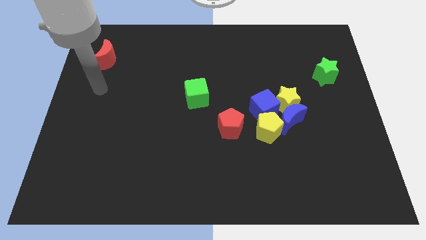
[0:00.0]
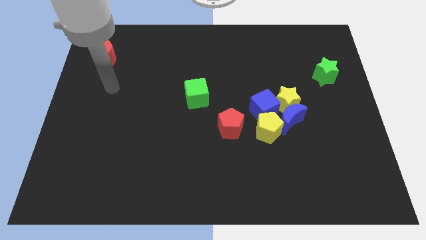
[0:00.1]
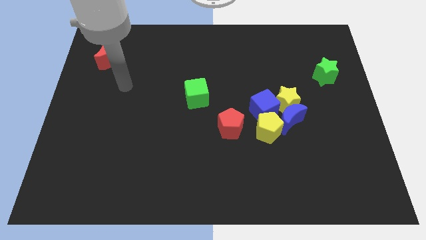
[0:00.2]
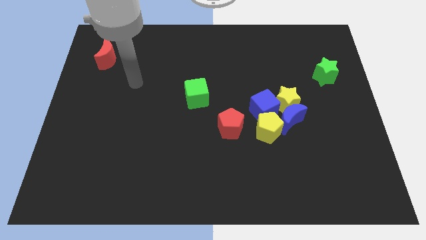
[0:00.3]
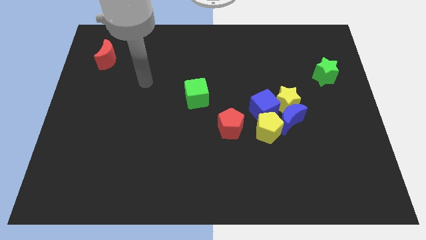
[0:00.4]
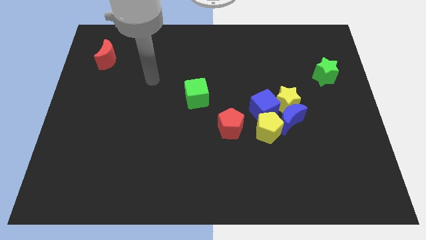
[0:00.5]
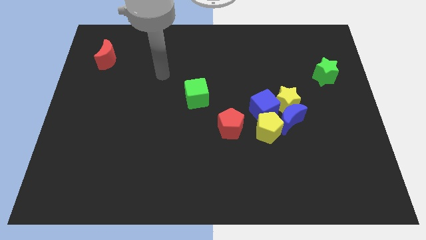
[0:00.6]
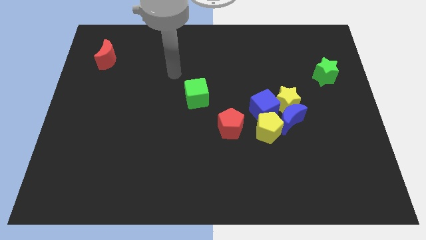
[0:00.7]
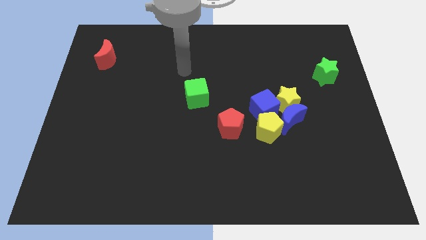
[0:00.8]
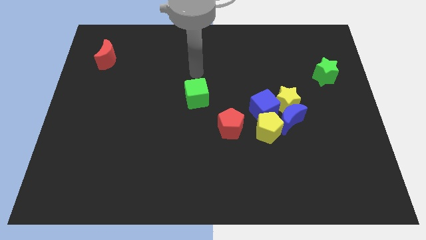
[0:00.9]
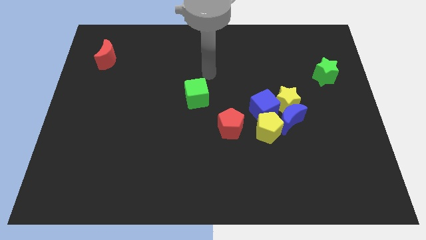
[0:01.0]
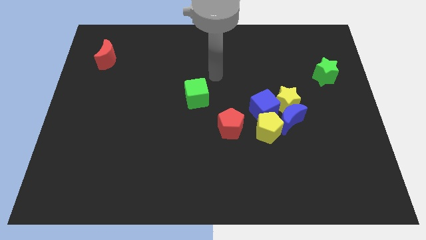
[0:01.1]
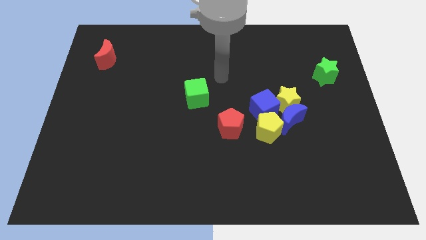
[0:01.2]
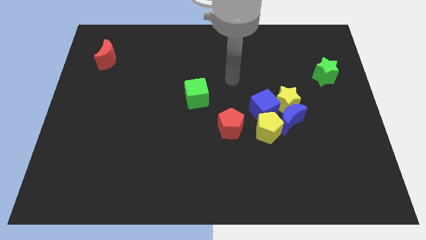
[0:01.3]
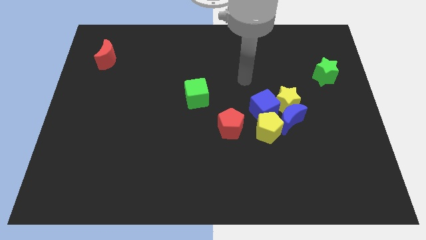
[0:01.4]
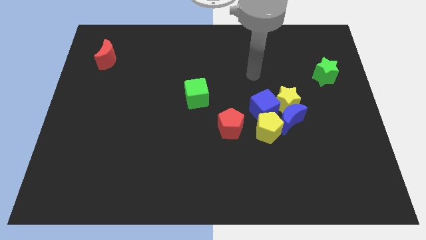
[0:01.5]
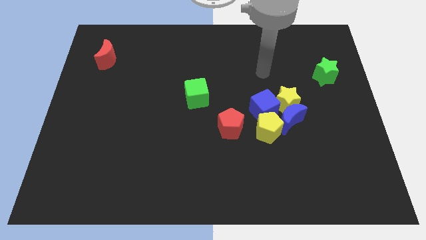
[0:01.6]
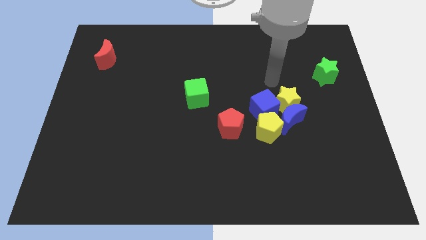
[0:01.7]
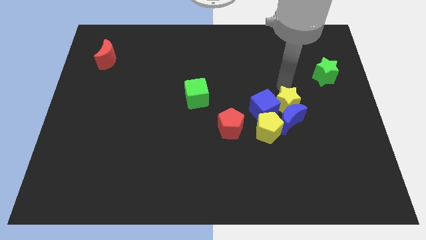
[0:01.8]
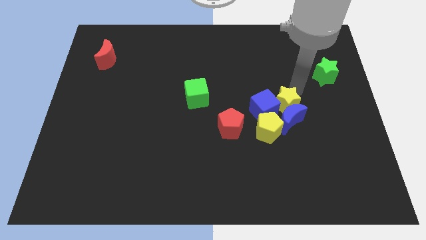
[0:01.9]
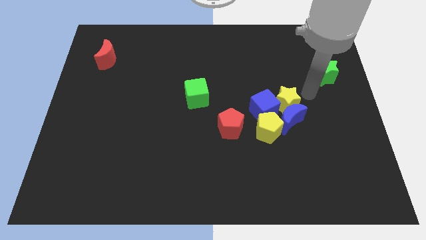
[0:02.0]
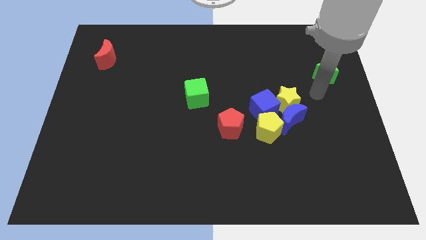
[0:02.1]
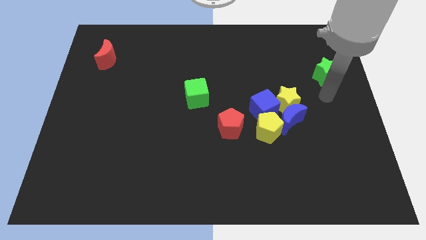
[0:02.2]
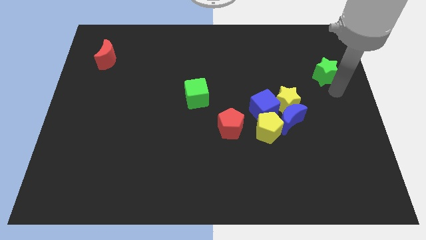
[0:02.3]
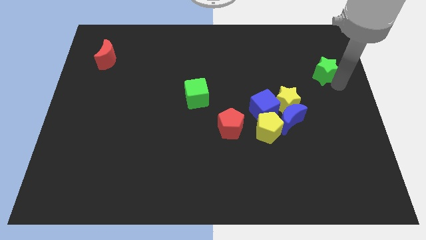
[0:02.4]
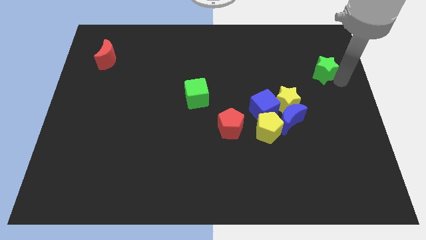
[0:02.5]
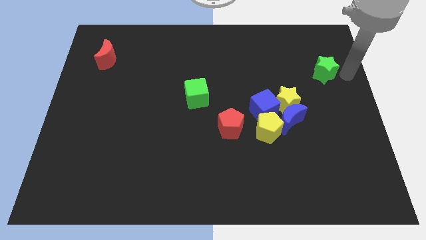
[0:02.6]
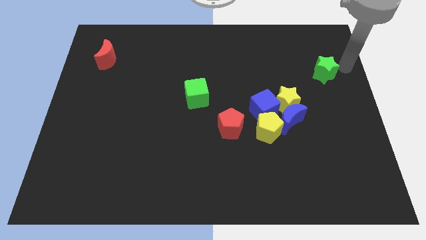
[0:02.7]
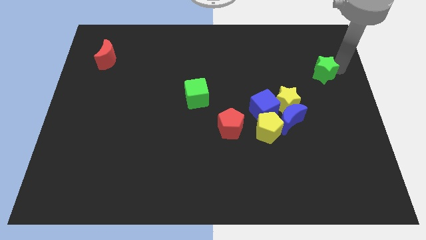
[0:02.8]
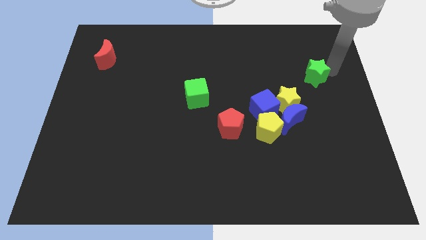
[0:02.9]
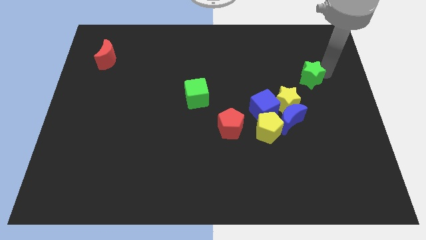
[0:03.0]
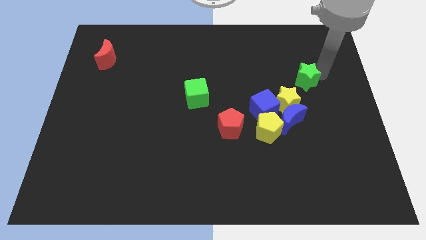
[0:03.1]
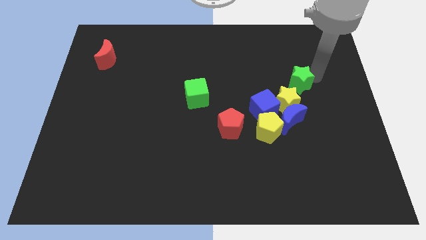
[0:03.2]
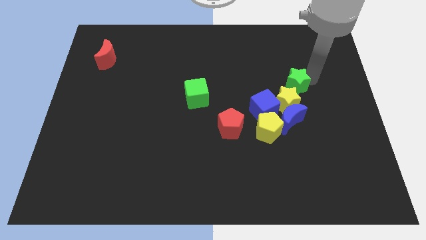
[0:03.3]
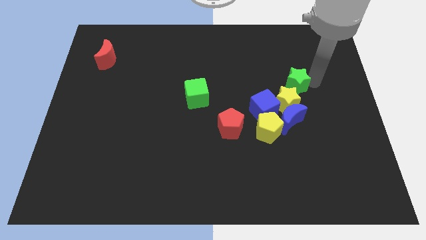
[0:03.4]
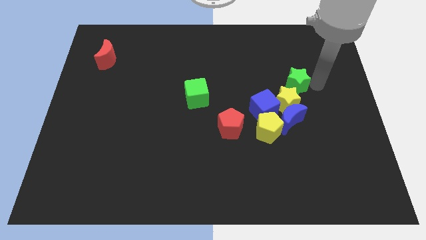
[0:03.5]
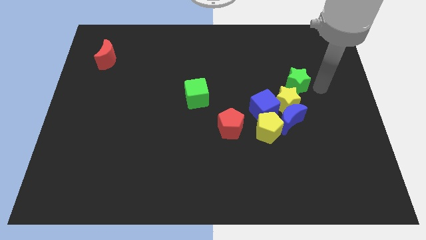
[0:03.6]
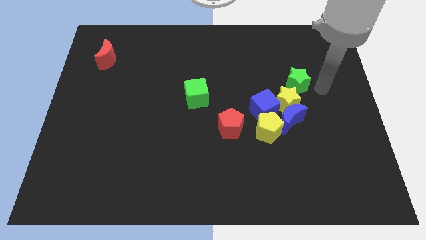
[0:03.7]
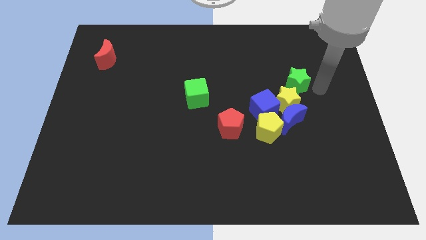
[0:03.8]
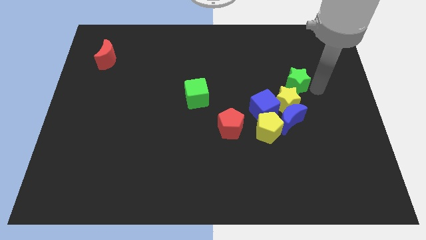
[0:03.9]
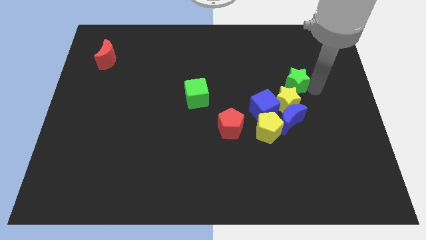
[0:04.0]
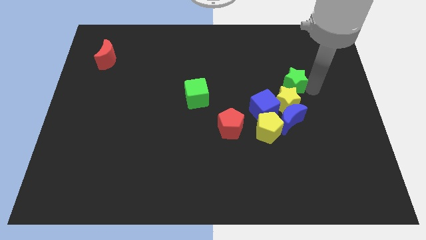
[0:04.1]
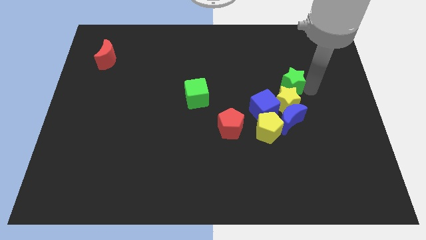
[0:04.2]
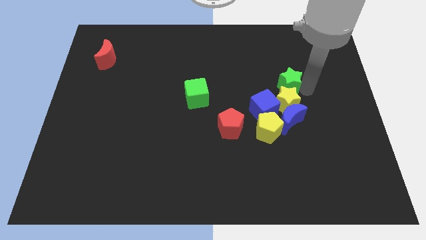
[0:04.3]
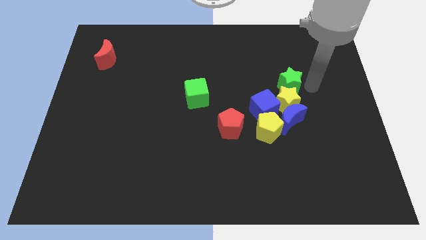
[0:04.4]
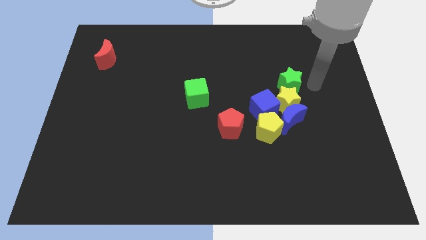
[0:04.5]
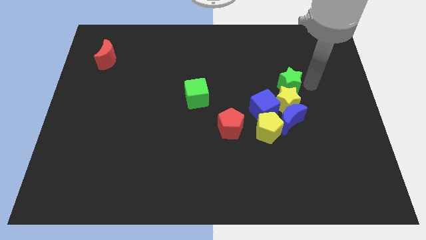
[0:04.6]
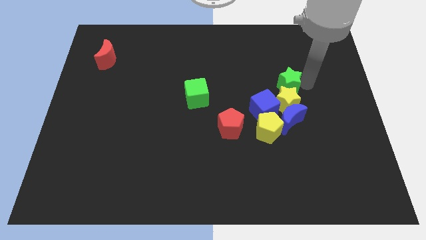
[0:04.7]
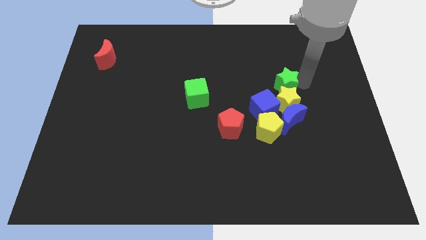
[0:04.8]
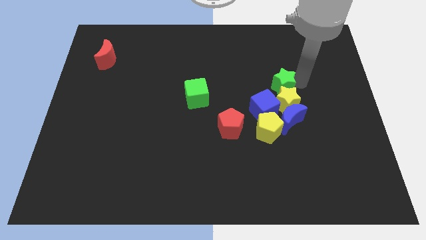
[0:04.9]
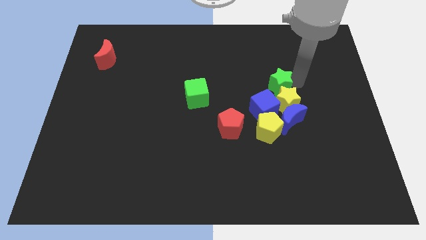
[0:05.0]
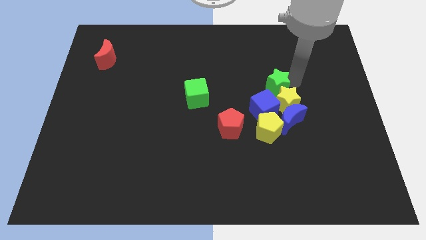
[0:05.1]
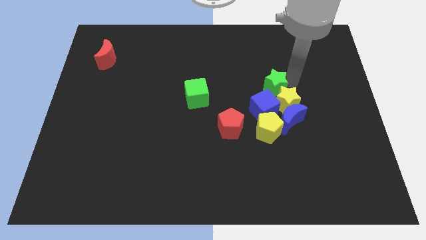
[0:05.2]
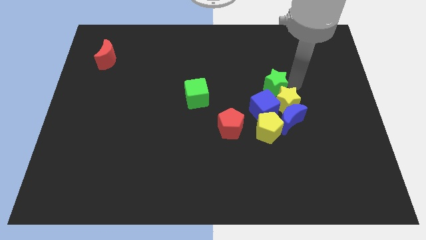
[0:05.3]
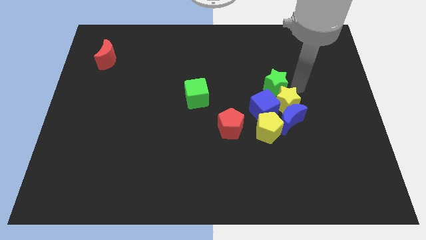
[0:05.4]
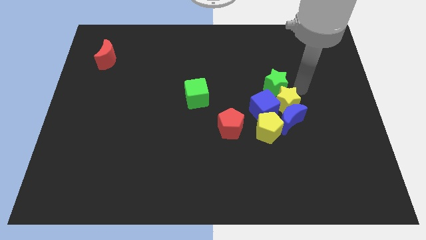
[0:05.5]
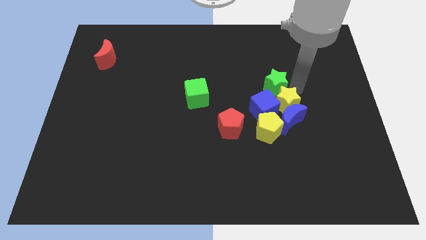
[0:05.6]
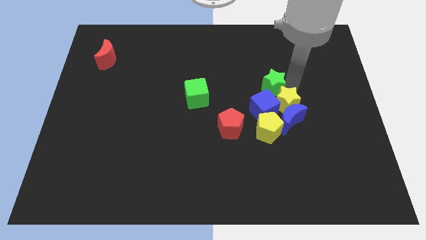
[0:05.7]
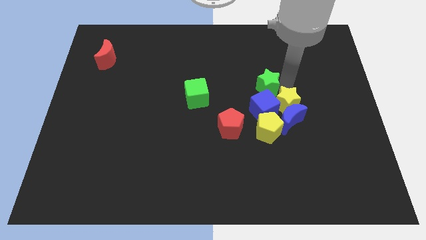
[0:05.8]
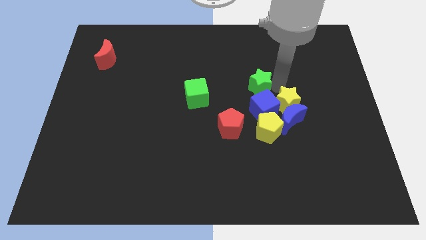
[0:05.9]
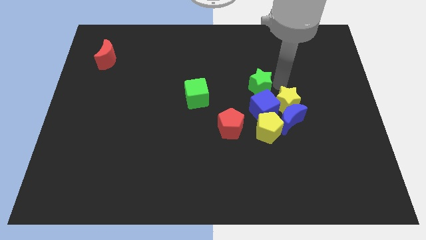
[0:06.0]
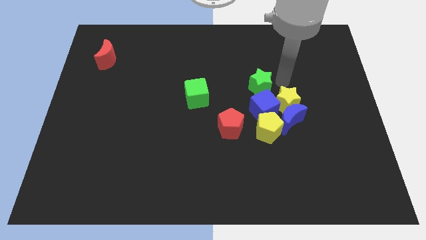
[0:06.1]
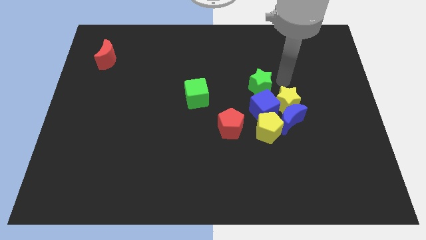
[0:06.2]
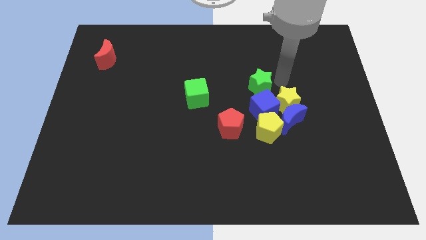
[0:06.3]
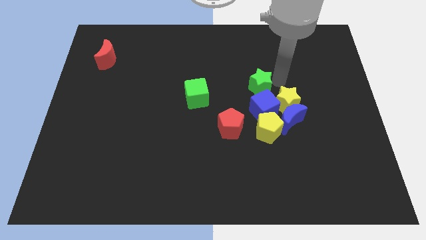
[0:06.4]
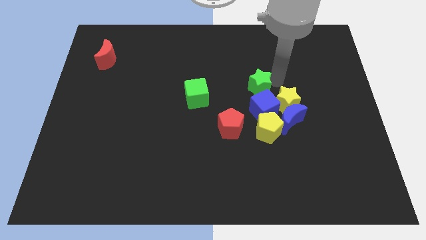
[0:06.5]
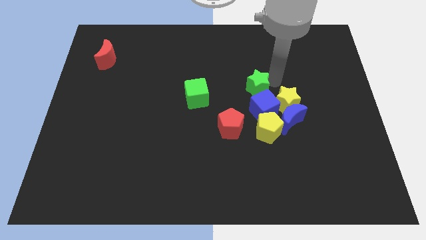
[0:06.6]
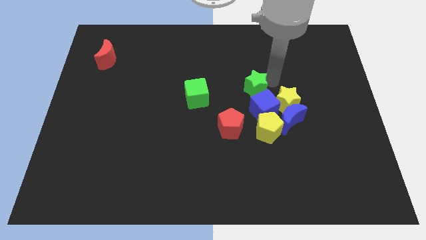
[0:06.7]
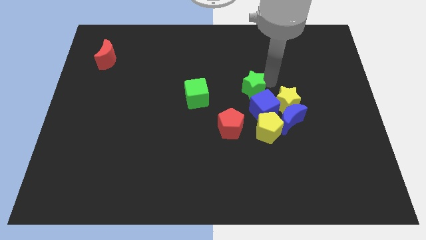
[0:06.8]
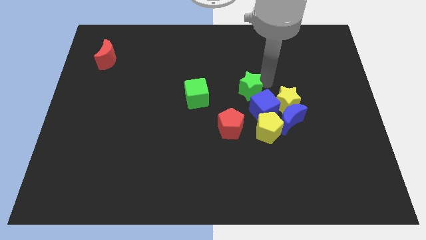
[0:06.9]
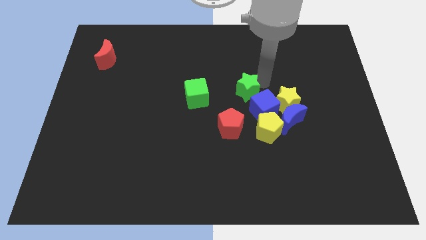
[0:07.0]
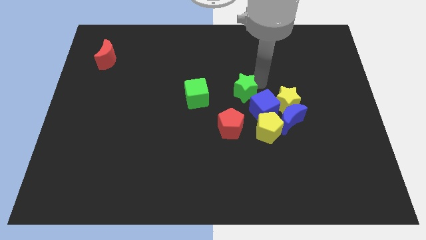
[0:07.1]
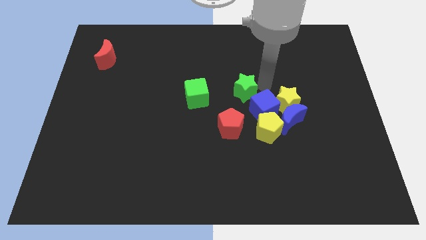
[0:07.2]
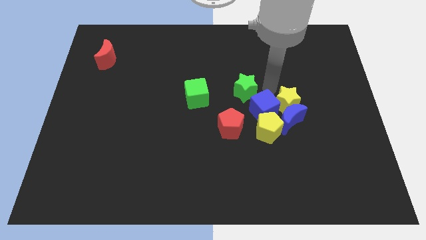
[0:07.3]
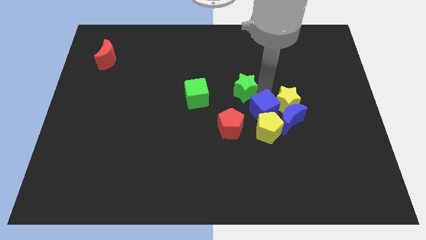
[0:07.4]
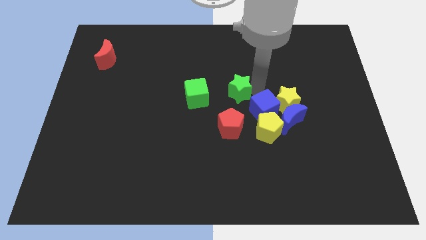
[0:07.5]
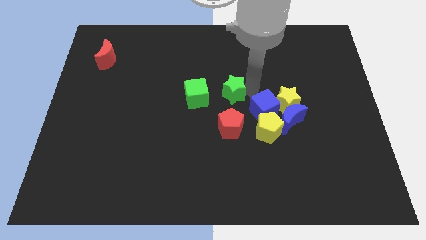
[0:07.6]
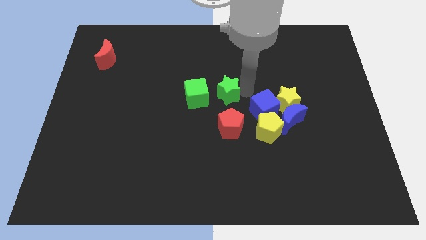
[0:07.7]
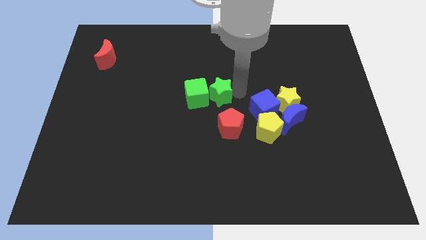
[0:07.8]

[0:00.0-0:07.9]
put the green star towards the green cube
